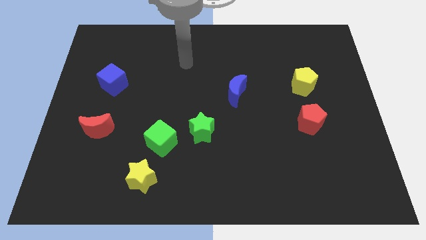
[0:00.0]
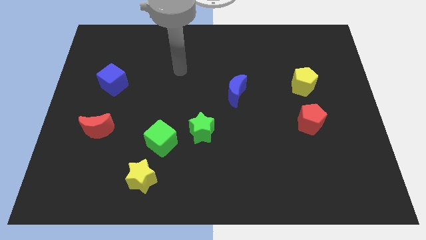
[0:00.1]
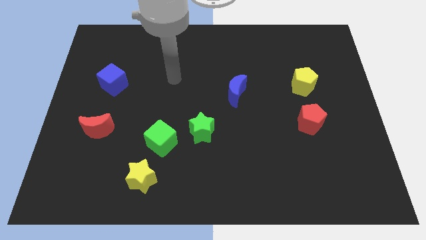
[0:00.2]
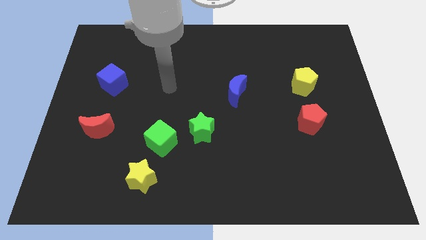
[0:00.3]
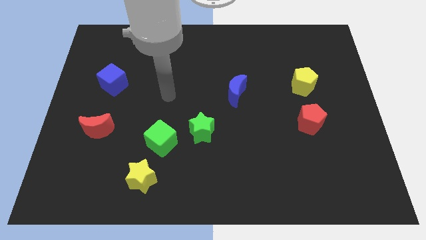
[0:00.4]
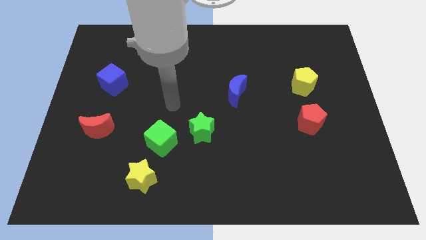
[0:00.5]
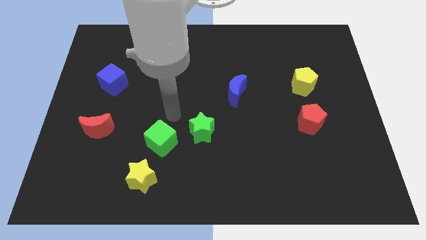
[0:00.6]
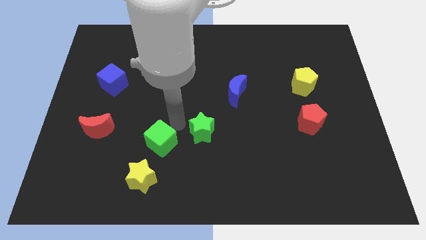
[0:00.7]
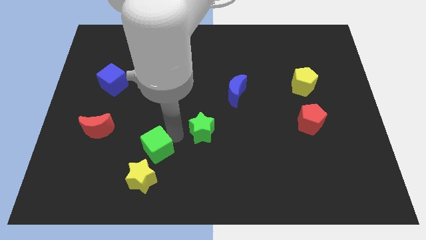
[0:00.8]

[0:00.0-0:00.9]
move the green star away from the green cube

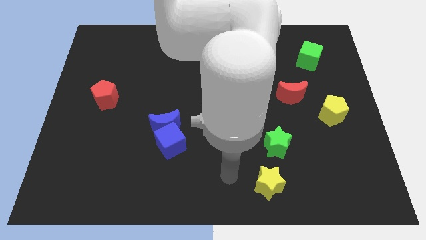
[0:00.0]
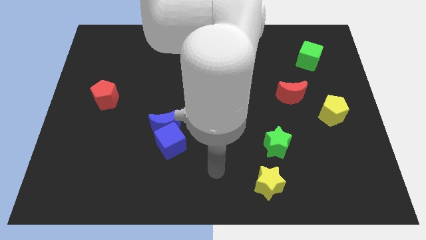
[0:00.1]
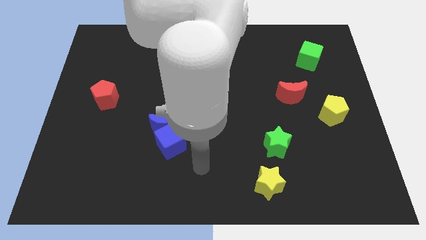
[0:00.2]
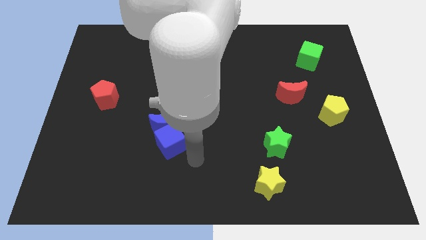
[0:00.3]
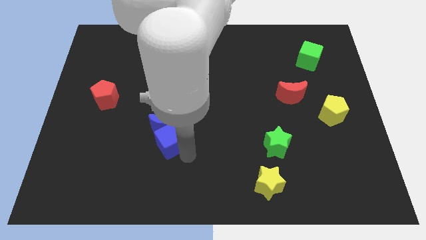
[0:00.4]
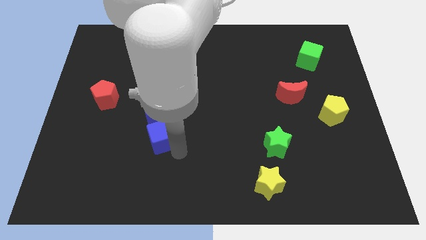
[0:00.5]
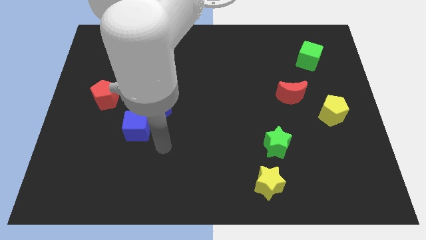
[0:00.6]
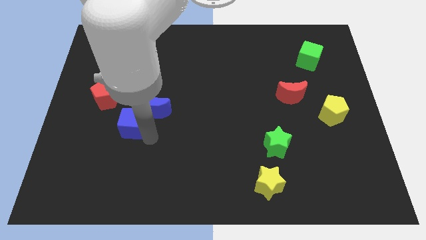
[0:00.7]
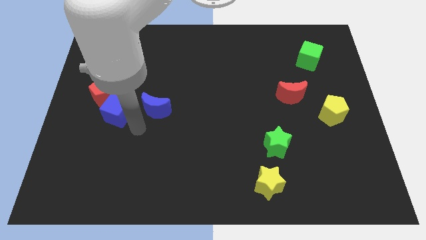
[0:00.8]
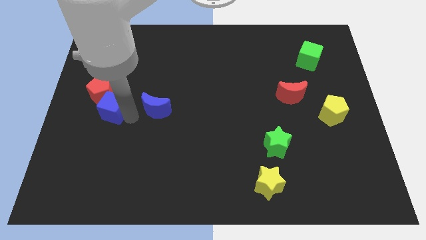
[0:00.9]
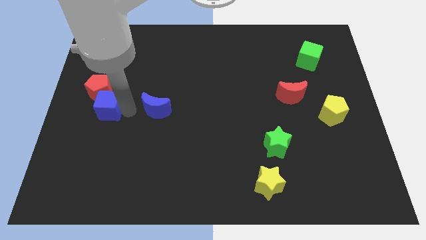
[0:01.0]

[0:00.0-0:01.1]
pull the blue moon apart from the blue cube

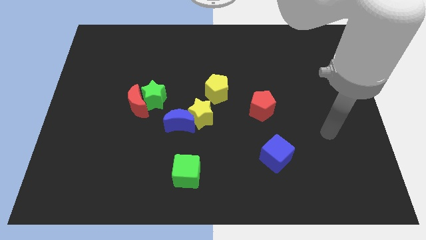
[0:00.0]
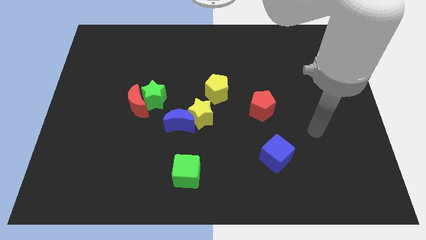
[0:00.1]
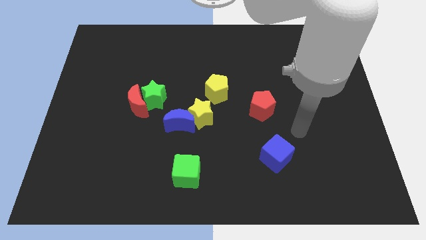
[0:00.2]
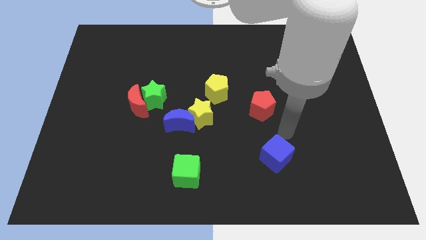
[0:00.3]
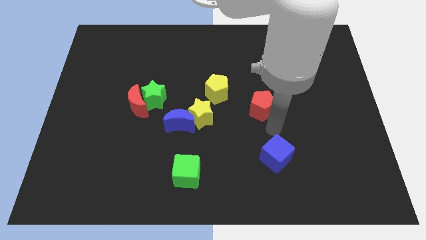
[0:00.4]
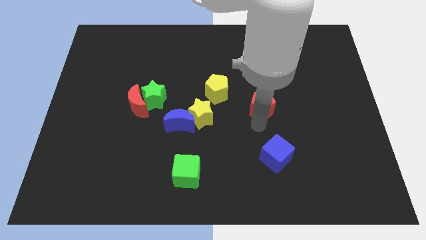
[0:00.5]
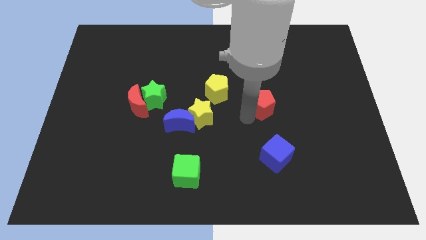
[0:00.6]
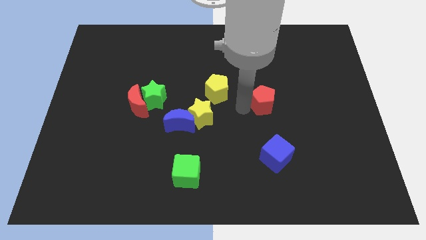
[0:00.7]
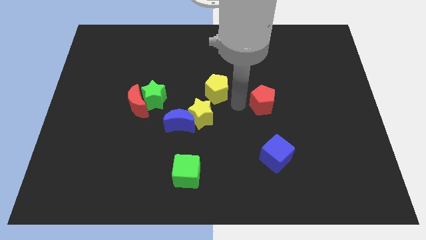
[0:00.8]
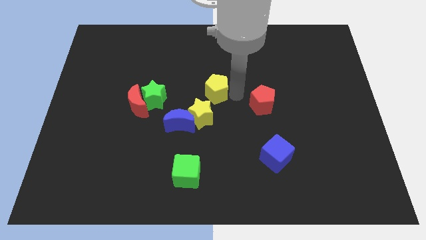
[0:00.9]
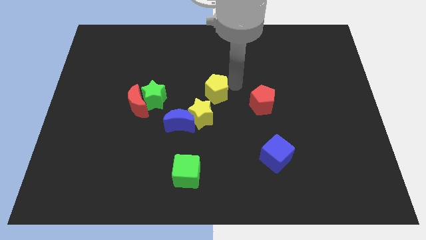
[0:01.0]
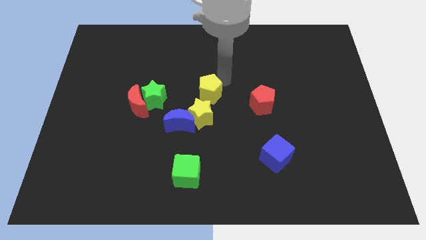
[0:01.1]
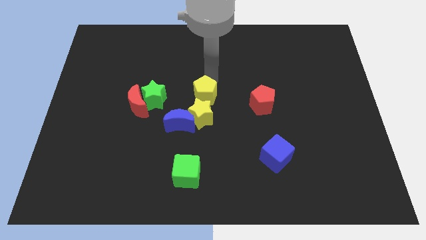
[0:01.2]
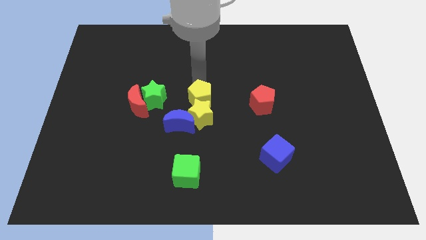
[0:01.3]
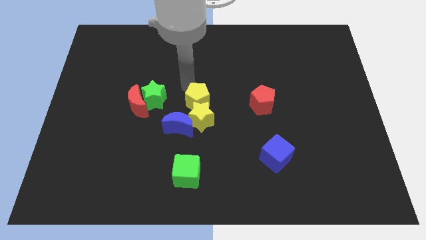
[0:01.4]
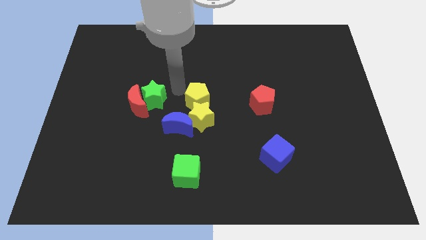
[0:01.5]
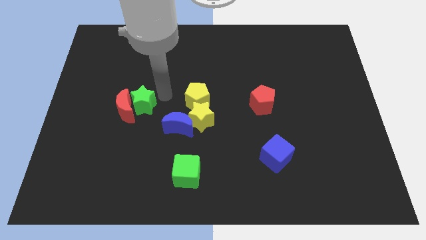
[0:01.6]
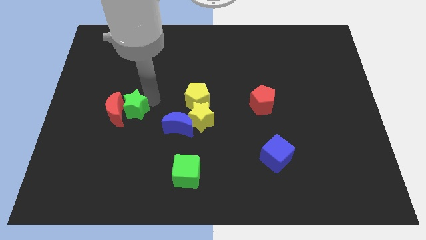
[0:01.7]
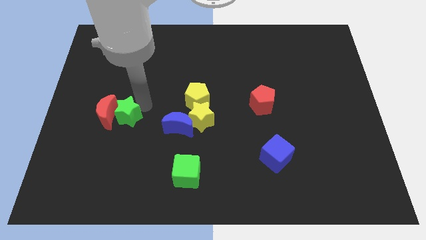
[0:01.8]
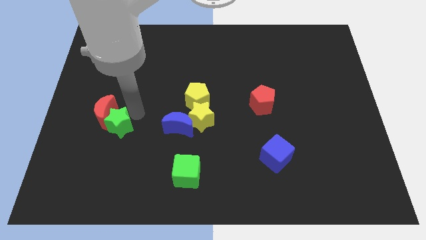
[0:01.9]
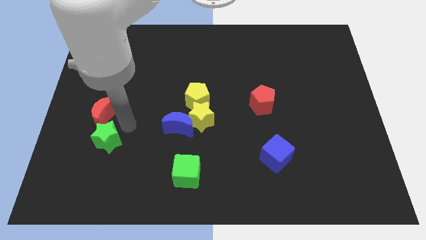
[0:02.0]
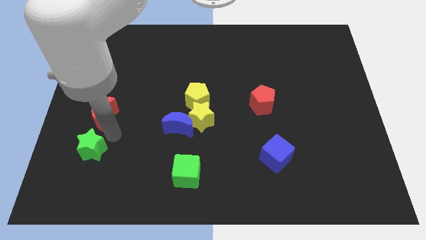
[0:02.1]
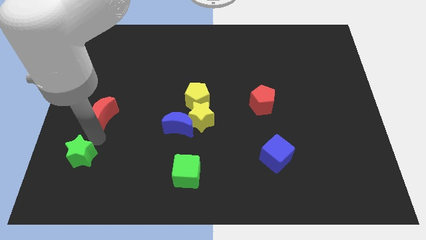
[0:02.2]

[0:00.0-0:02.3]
pull the red moon apart from the green star

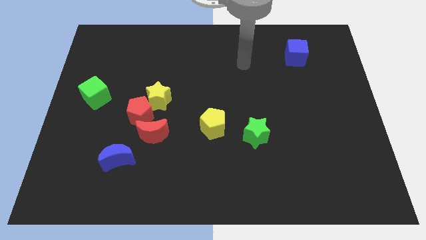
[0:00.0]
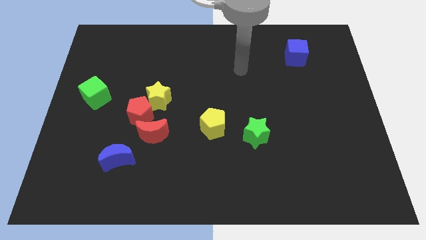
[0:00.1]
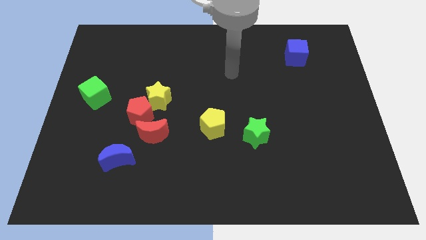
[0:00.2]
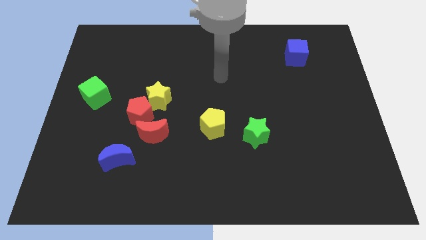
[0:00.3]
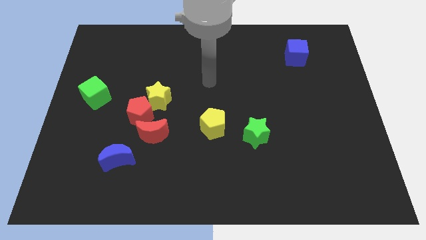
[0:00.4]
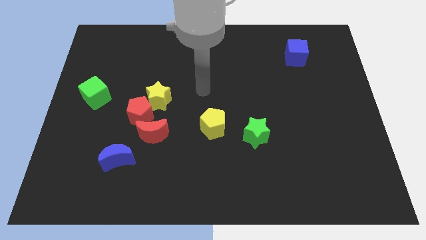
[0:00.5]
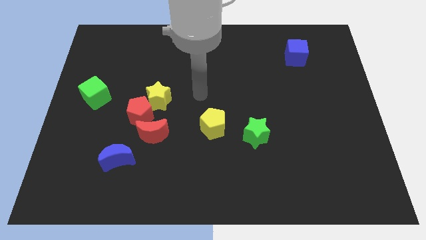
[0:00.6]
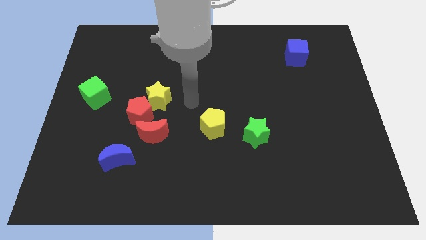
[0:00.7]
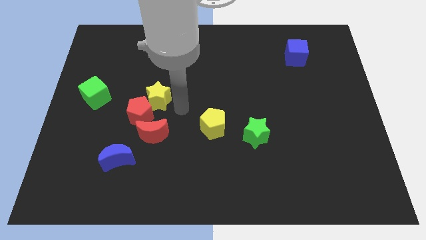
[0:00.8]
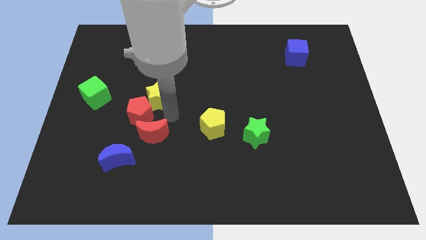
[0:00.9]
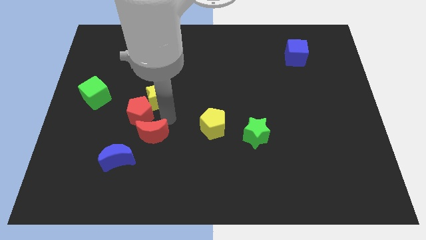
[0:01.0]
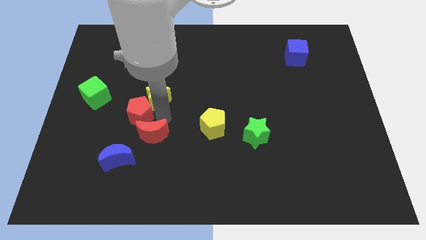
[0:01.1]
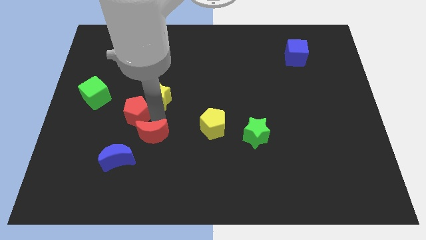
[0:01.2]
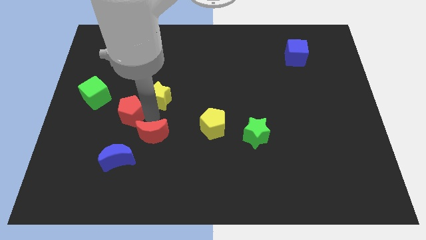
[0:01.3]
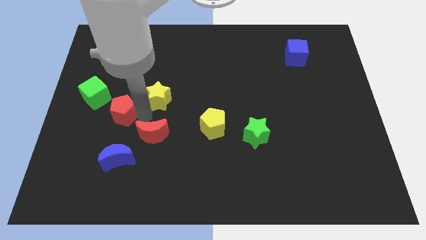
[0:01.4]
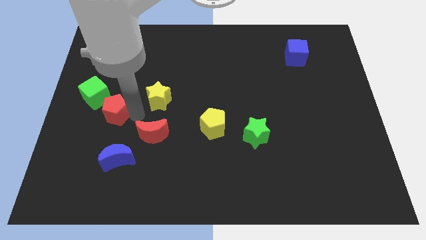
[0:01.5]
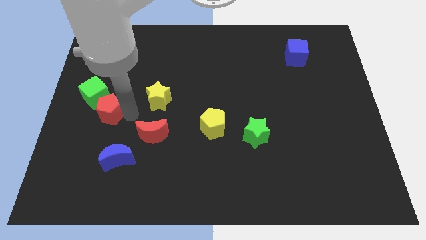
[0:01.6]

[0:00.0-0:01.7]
pull the red pentagon apart from the yellow star and red moon

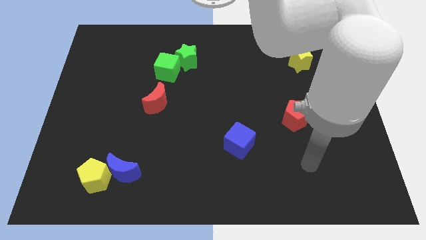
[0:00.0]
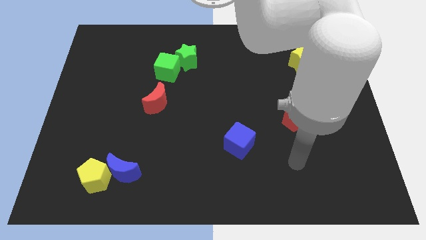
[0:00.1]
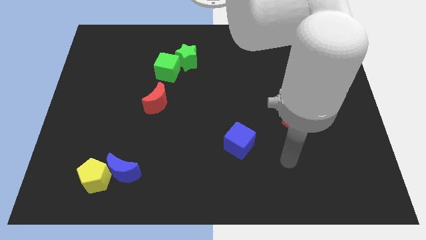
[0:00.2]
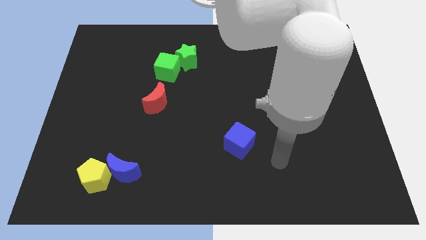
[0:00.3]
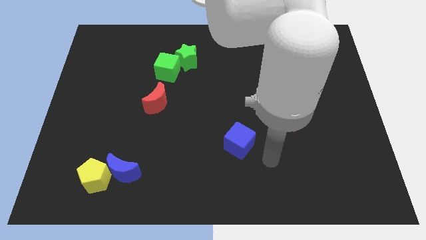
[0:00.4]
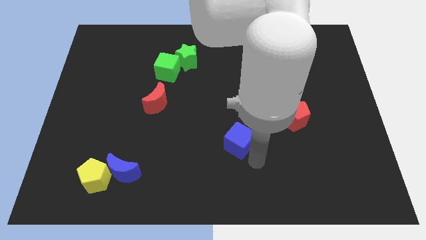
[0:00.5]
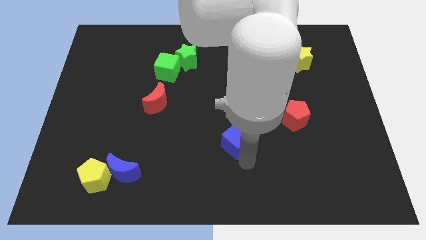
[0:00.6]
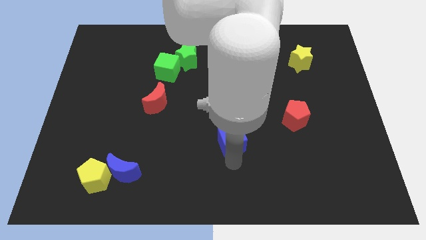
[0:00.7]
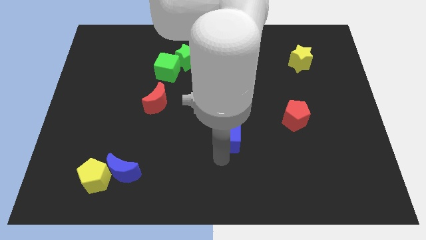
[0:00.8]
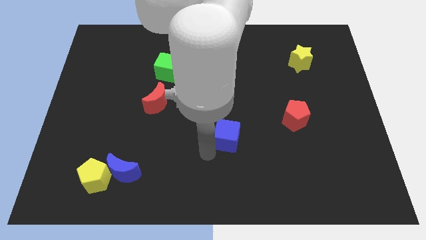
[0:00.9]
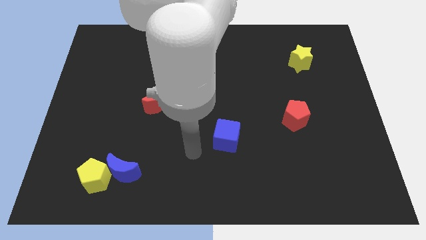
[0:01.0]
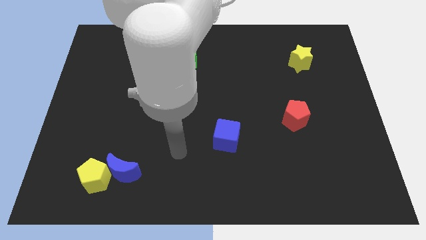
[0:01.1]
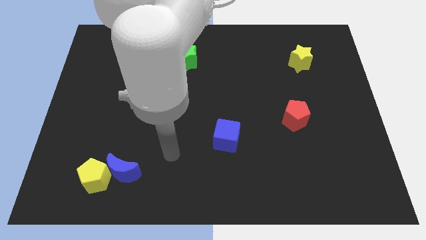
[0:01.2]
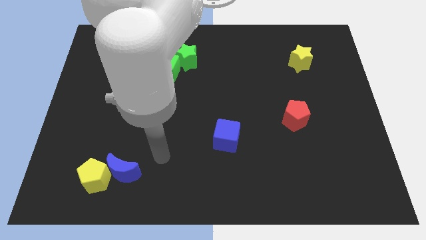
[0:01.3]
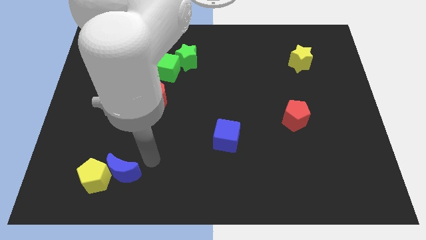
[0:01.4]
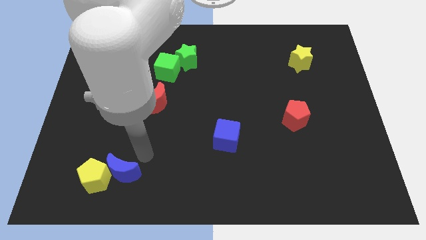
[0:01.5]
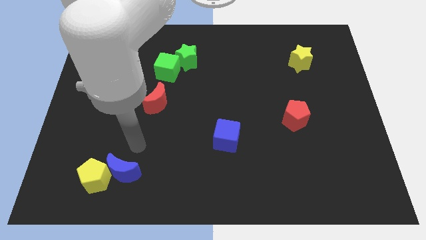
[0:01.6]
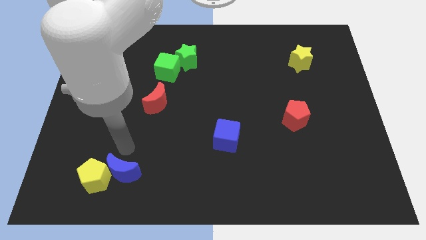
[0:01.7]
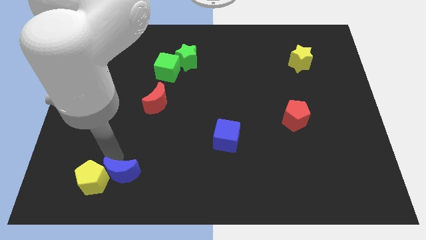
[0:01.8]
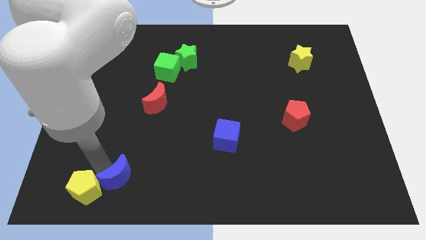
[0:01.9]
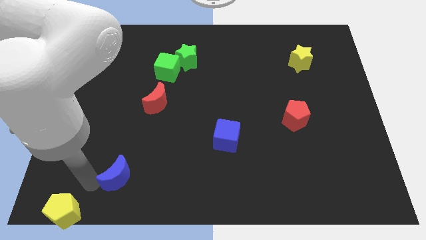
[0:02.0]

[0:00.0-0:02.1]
move the blue moon away from the yellow pentagon

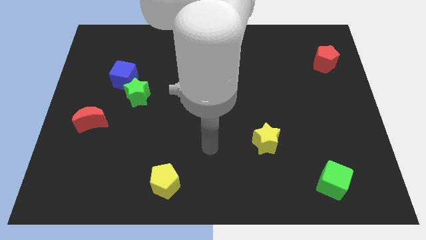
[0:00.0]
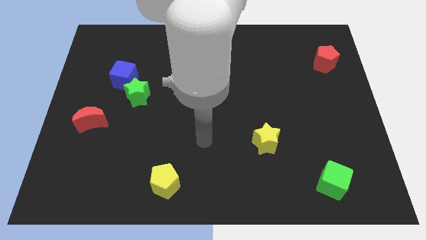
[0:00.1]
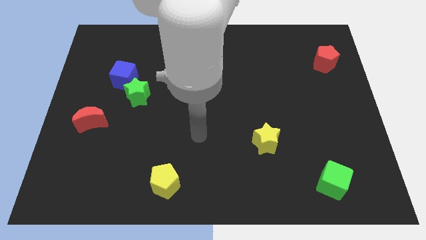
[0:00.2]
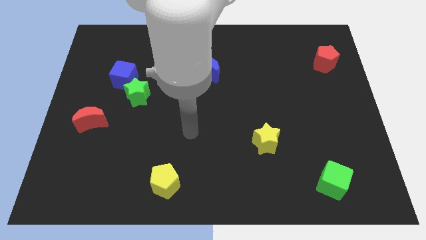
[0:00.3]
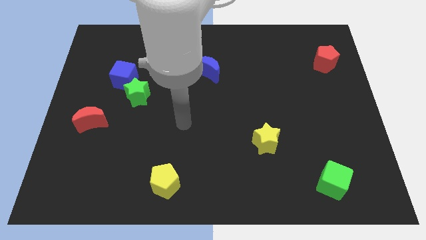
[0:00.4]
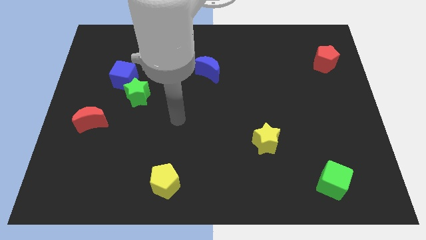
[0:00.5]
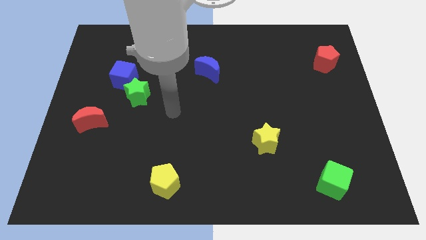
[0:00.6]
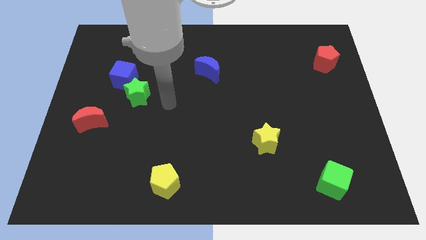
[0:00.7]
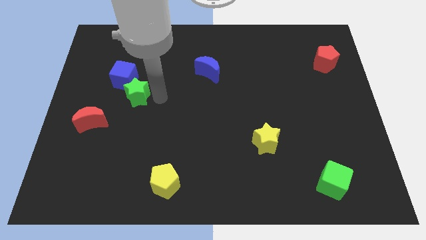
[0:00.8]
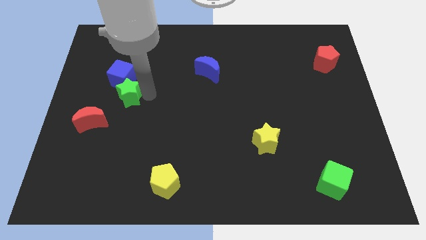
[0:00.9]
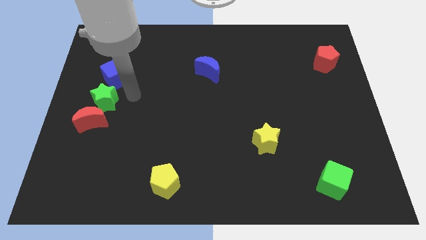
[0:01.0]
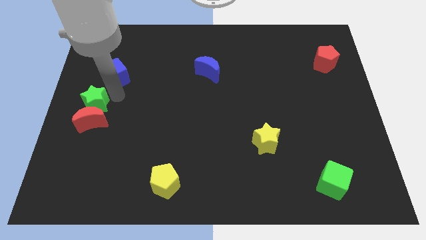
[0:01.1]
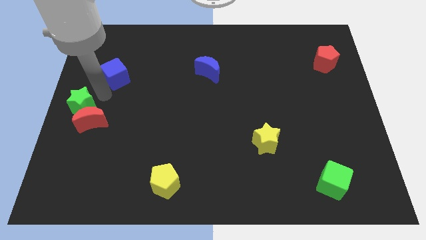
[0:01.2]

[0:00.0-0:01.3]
separate the blue cube from the green star
